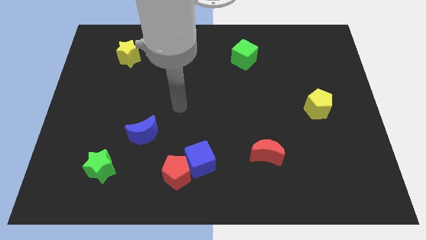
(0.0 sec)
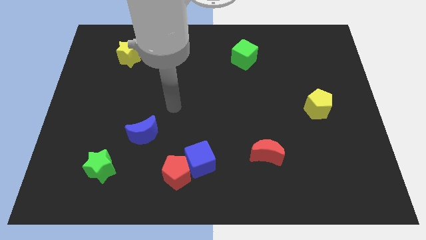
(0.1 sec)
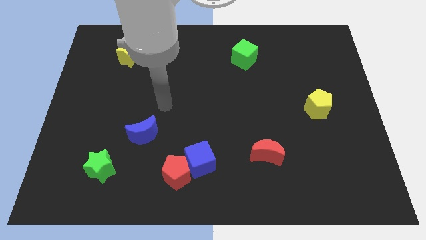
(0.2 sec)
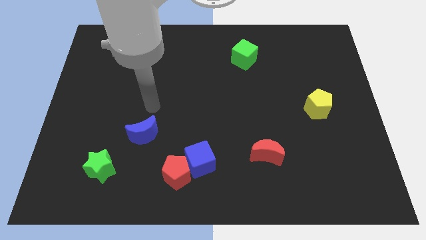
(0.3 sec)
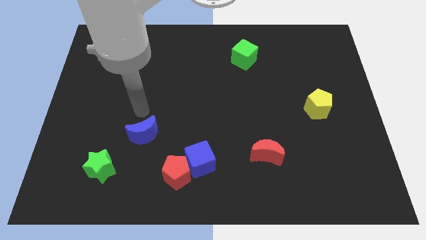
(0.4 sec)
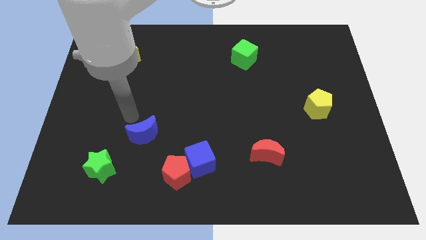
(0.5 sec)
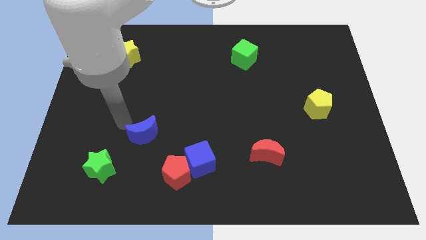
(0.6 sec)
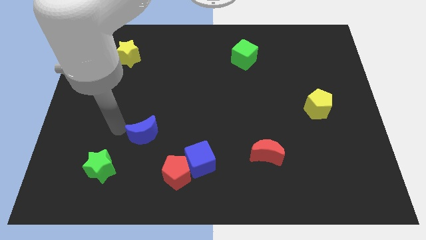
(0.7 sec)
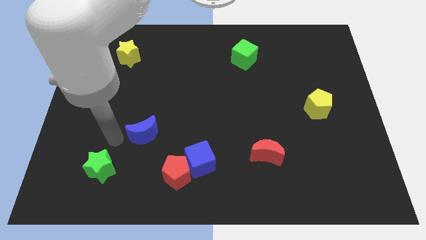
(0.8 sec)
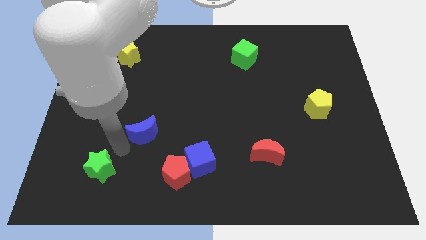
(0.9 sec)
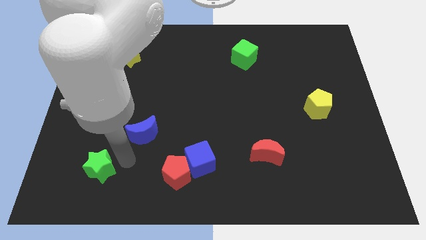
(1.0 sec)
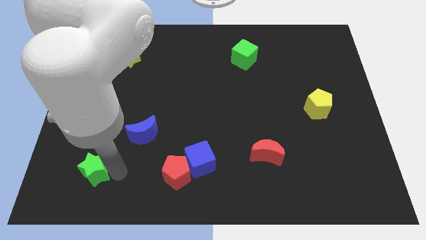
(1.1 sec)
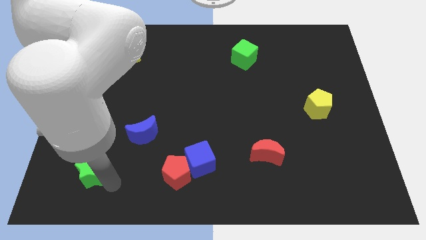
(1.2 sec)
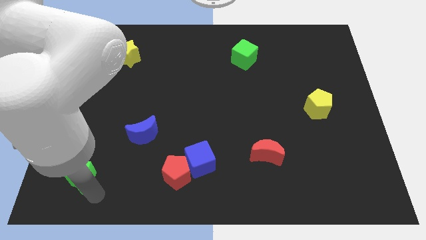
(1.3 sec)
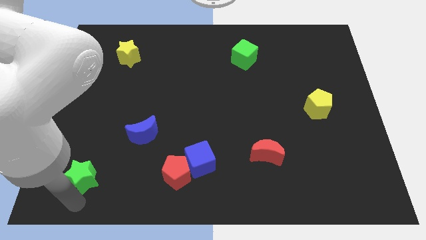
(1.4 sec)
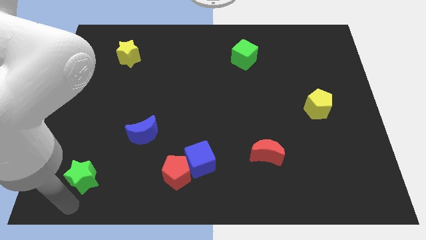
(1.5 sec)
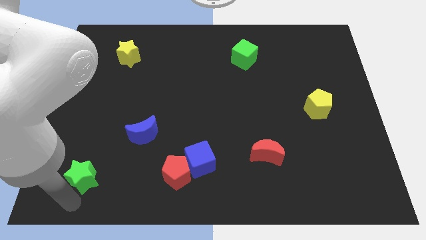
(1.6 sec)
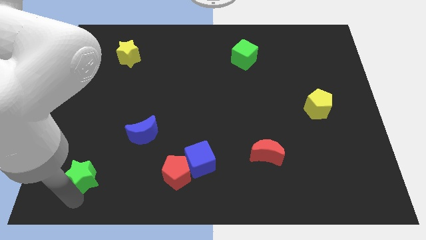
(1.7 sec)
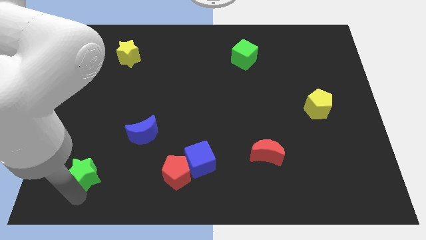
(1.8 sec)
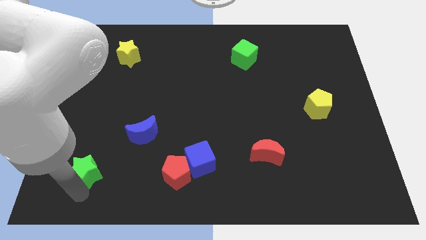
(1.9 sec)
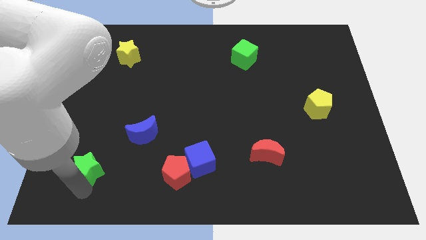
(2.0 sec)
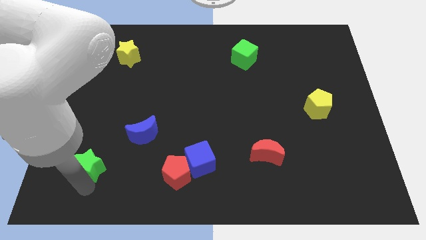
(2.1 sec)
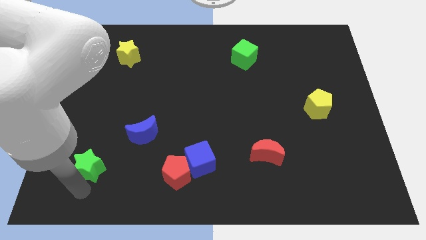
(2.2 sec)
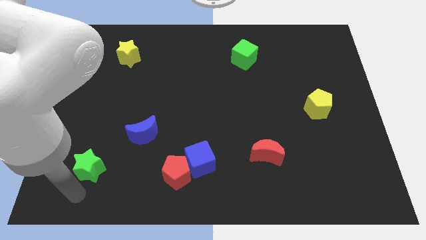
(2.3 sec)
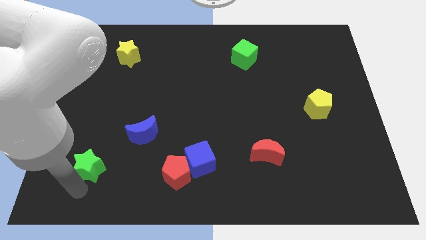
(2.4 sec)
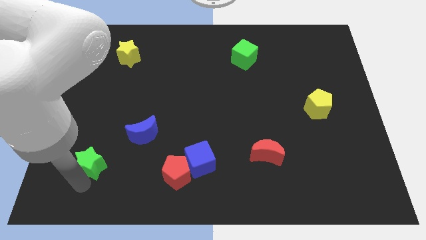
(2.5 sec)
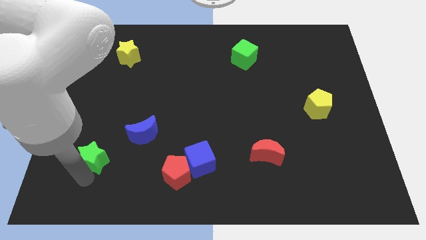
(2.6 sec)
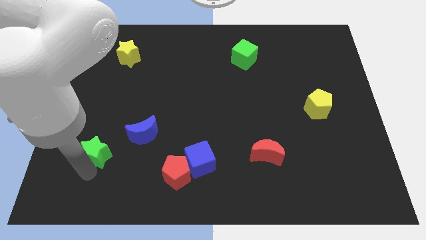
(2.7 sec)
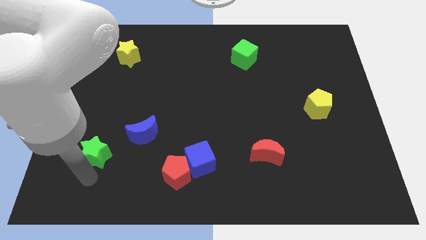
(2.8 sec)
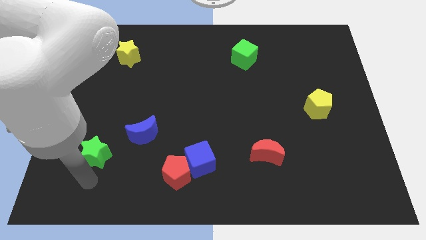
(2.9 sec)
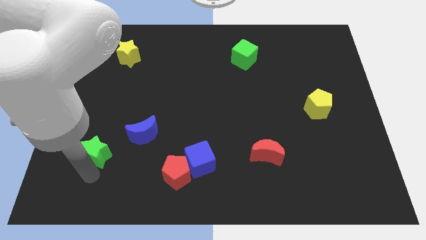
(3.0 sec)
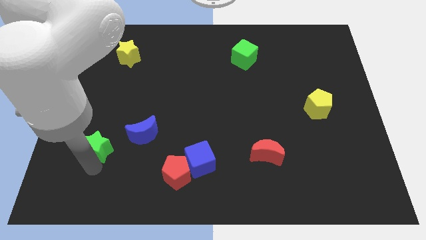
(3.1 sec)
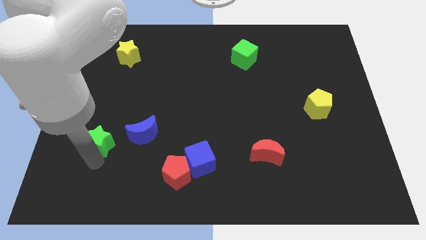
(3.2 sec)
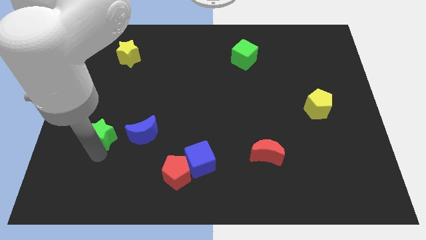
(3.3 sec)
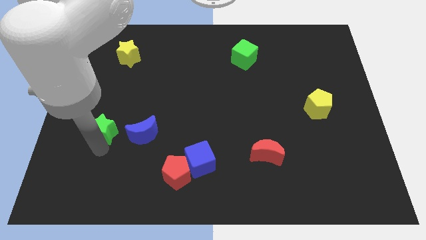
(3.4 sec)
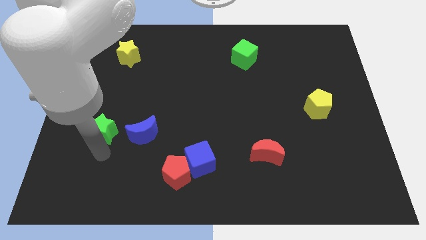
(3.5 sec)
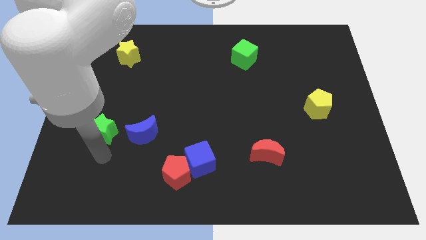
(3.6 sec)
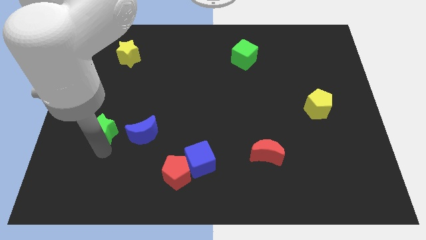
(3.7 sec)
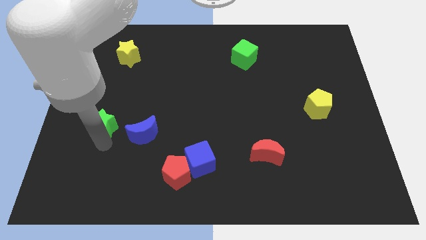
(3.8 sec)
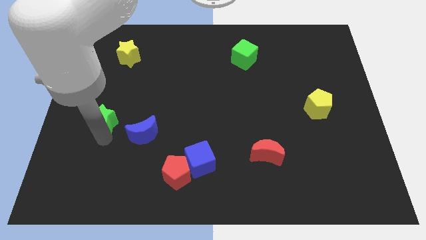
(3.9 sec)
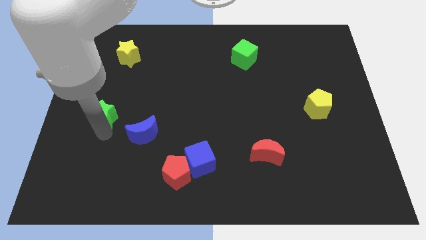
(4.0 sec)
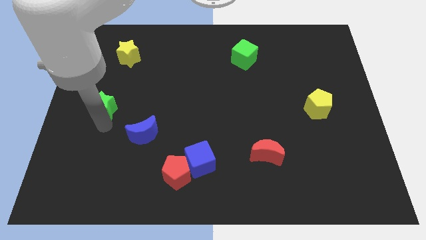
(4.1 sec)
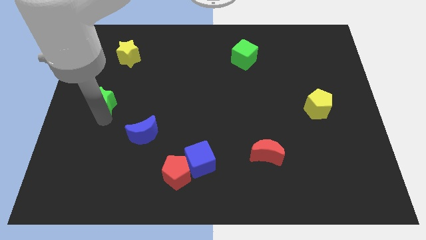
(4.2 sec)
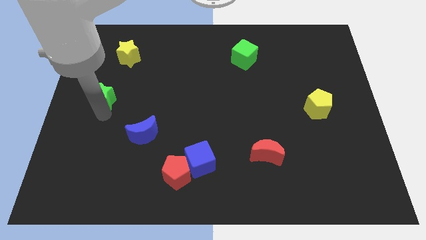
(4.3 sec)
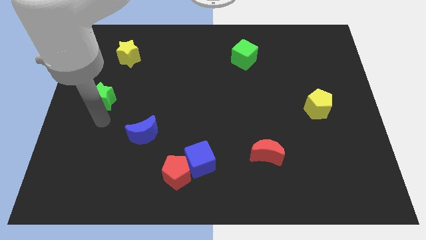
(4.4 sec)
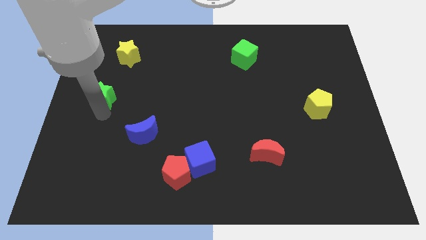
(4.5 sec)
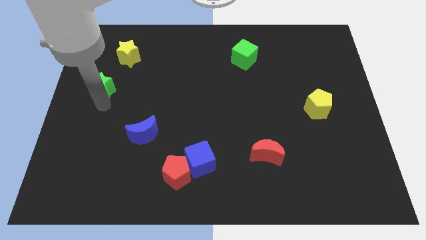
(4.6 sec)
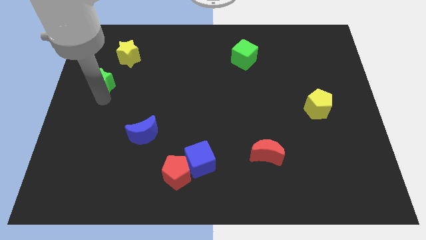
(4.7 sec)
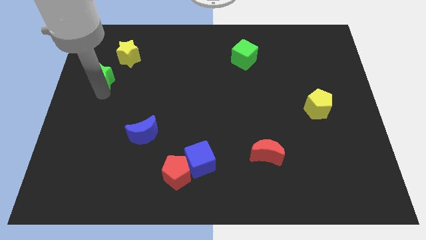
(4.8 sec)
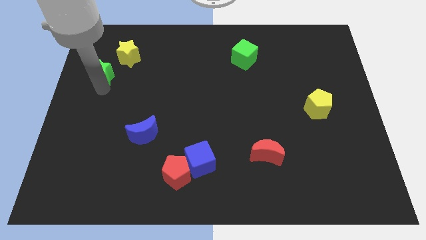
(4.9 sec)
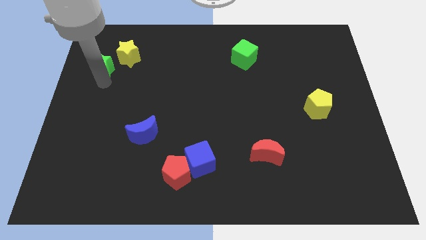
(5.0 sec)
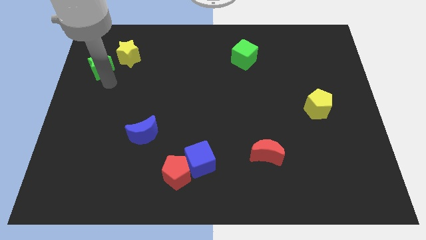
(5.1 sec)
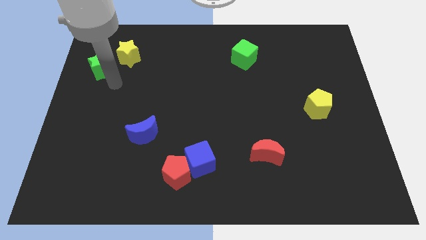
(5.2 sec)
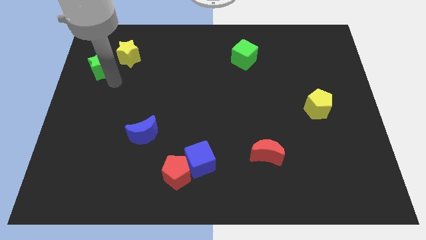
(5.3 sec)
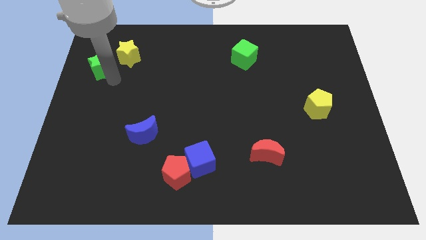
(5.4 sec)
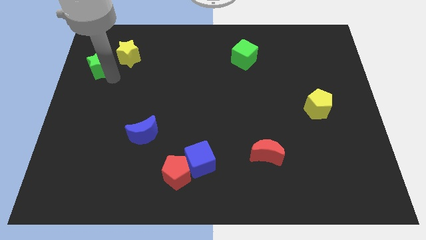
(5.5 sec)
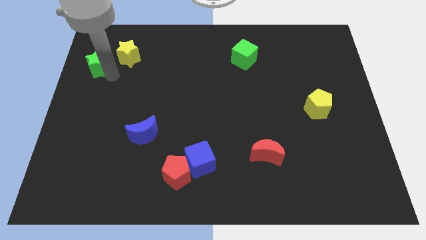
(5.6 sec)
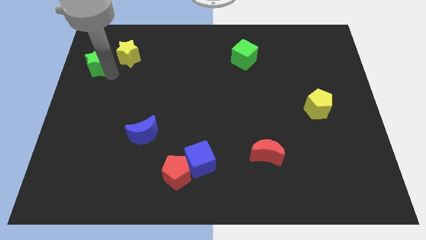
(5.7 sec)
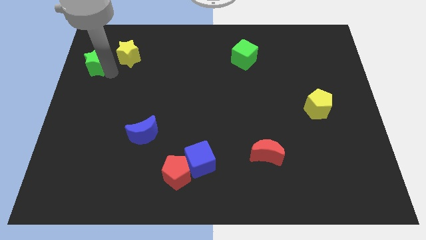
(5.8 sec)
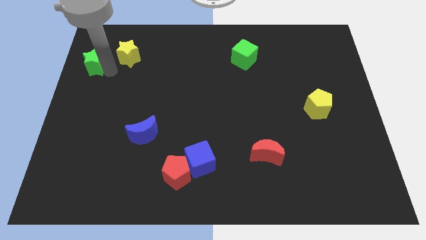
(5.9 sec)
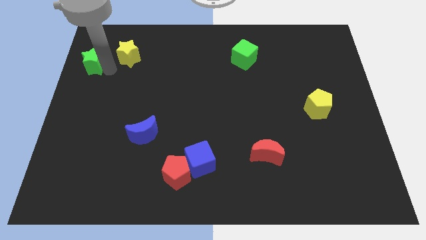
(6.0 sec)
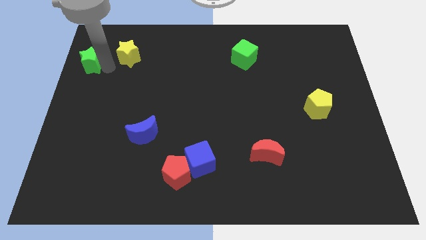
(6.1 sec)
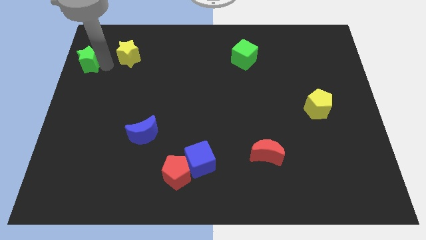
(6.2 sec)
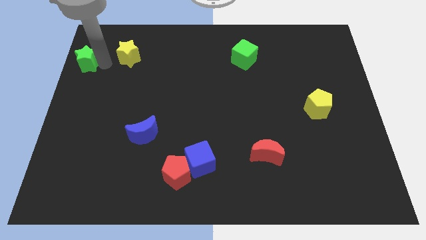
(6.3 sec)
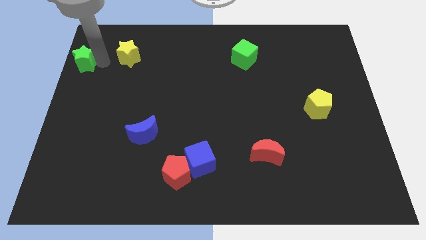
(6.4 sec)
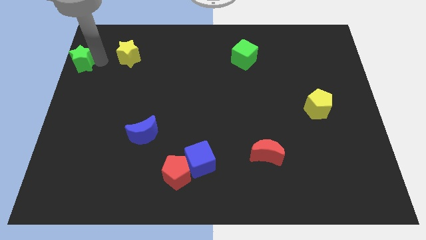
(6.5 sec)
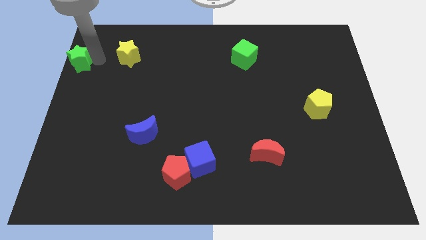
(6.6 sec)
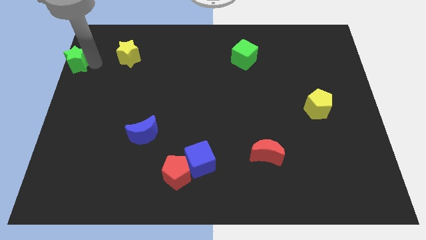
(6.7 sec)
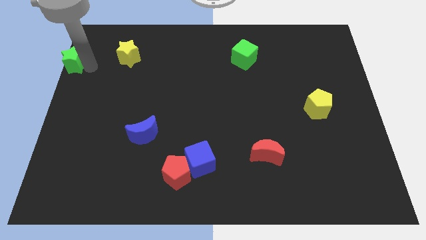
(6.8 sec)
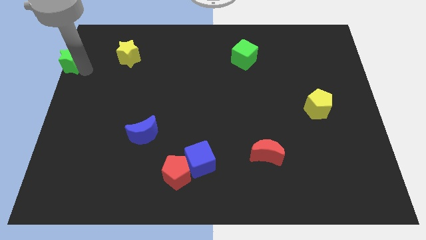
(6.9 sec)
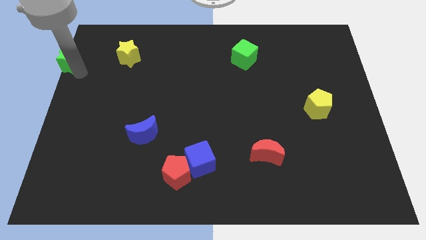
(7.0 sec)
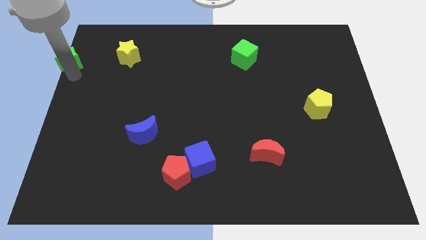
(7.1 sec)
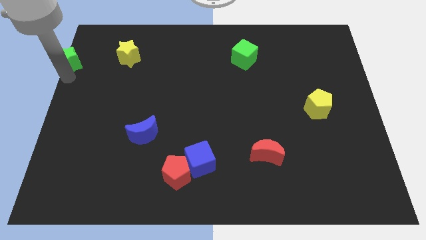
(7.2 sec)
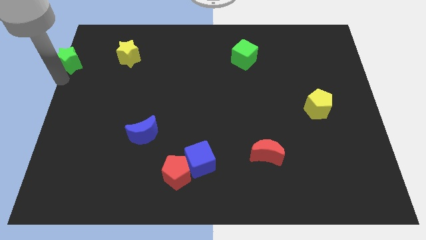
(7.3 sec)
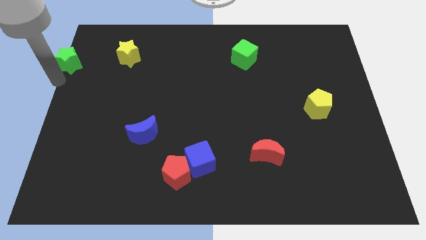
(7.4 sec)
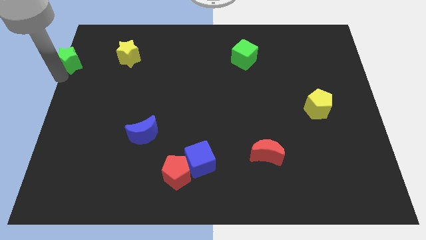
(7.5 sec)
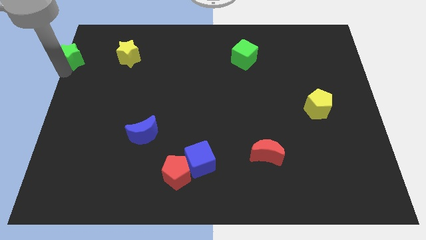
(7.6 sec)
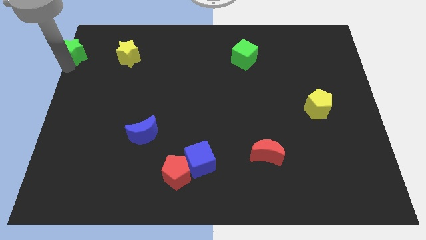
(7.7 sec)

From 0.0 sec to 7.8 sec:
slide the green star to the top left corner
